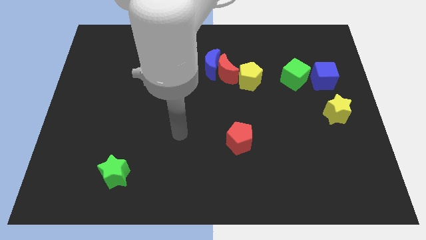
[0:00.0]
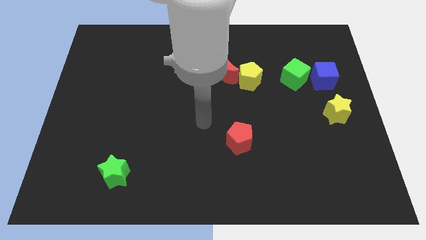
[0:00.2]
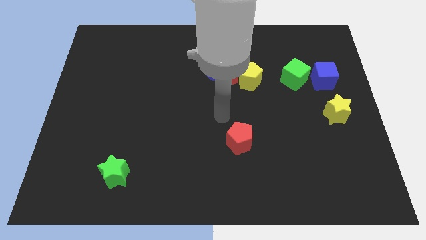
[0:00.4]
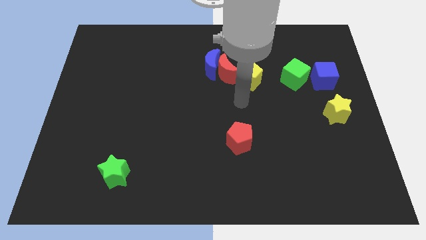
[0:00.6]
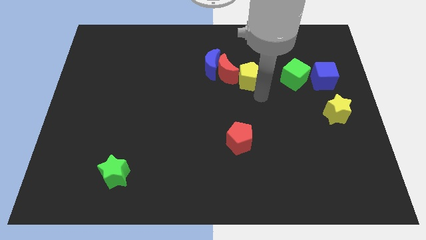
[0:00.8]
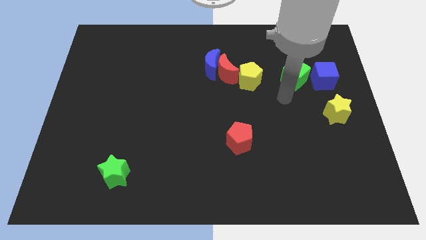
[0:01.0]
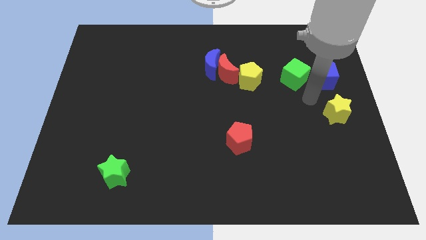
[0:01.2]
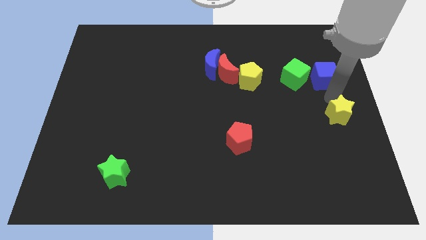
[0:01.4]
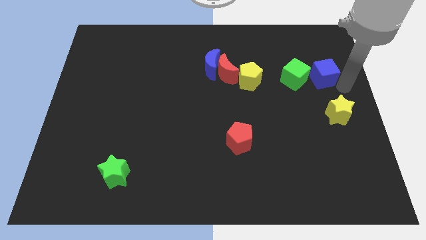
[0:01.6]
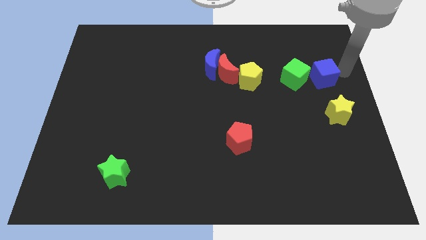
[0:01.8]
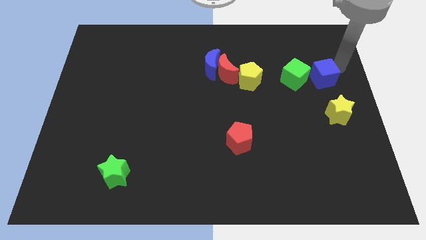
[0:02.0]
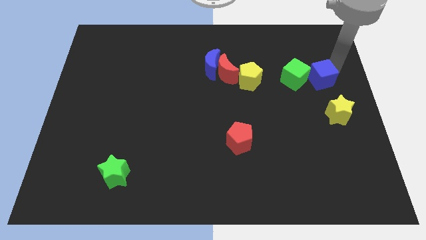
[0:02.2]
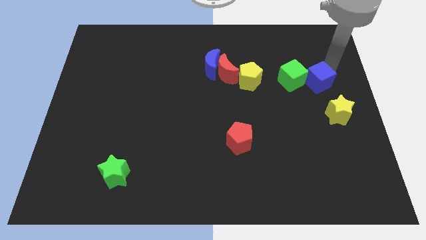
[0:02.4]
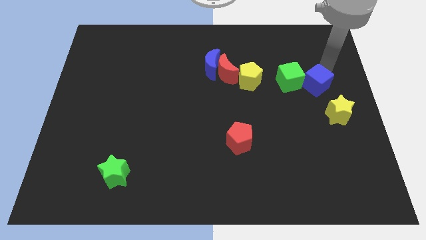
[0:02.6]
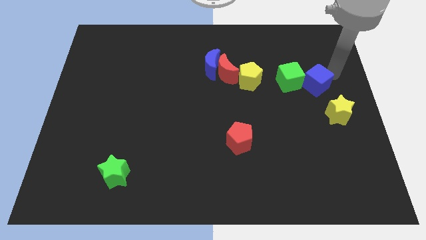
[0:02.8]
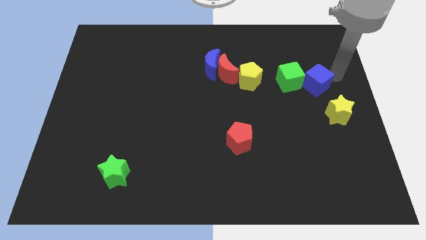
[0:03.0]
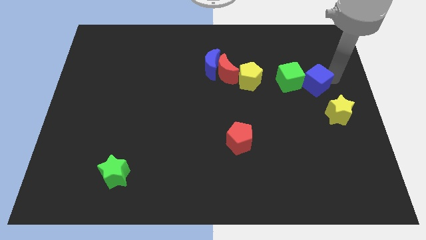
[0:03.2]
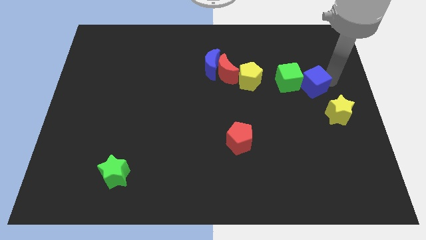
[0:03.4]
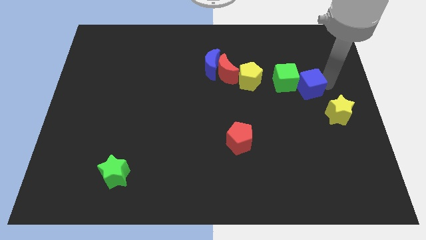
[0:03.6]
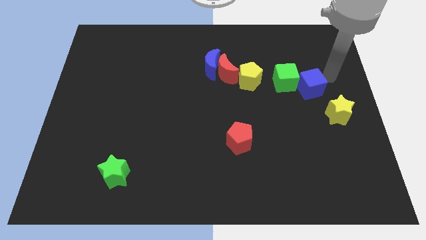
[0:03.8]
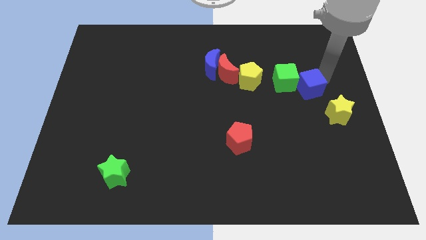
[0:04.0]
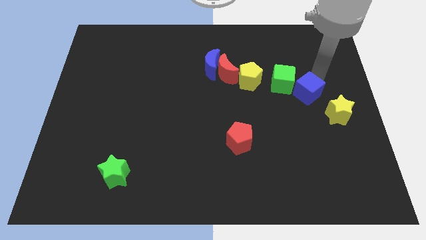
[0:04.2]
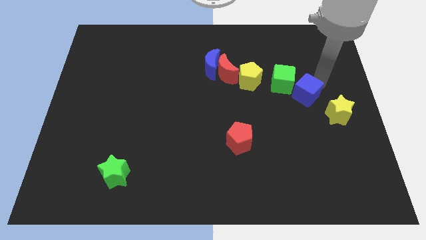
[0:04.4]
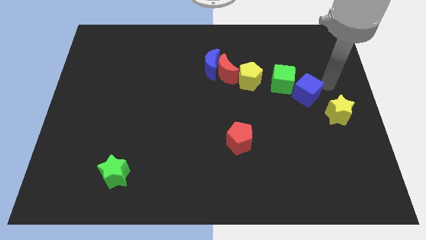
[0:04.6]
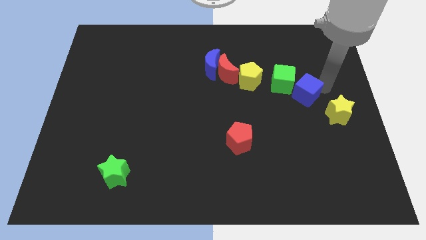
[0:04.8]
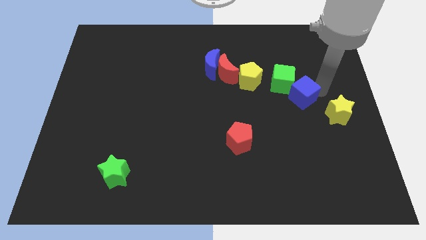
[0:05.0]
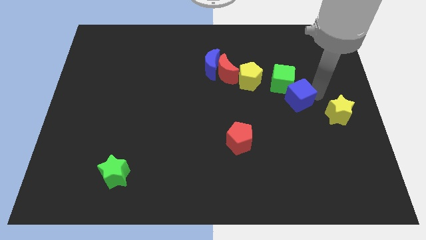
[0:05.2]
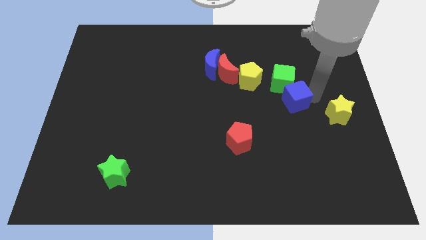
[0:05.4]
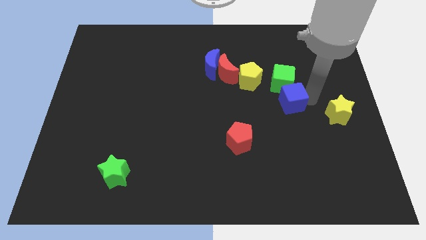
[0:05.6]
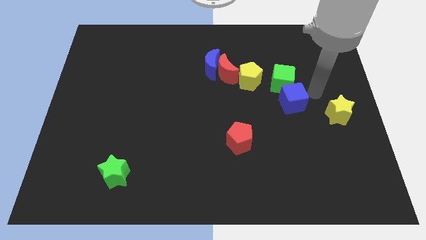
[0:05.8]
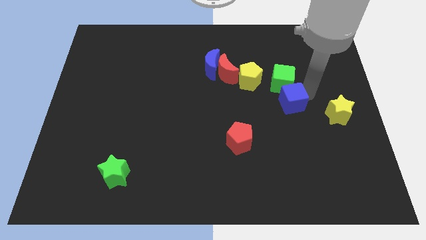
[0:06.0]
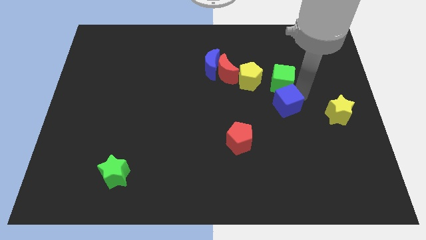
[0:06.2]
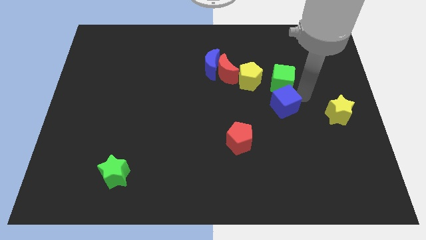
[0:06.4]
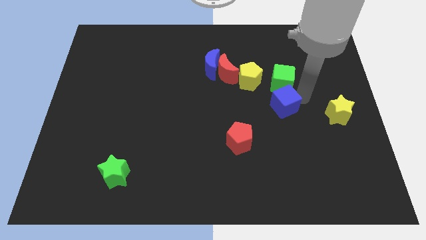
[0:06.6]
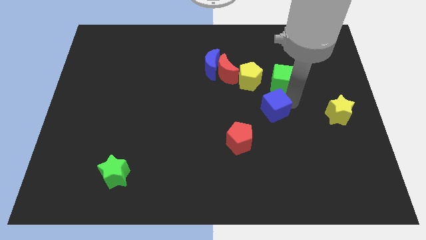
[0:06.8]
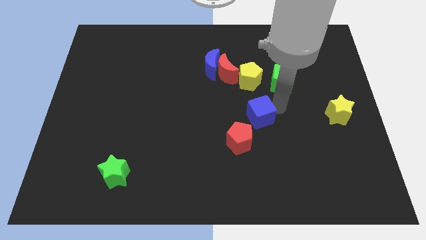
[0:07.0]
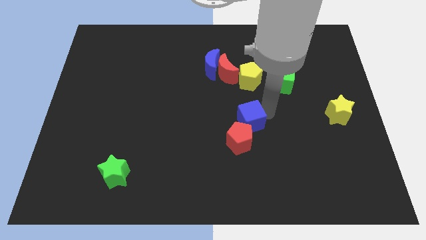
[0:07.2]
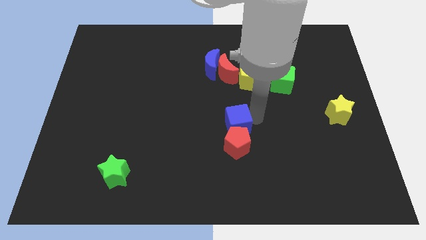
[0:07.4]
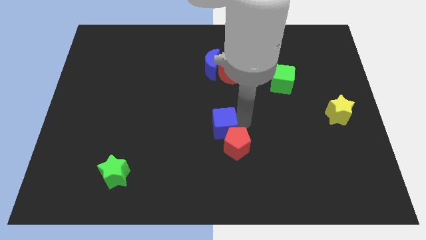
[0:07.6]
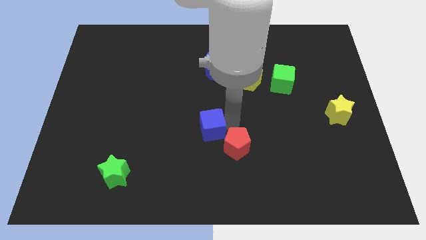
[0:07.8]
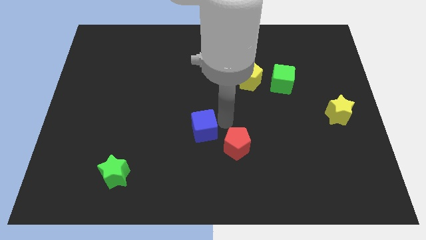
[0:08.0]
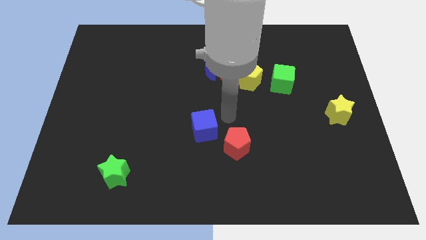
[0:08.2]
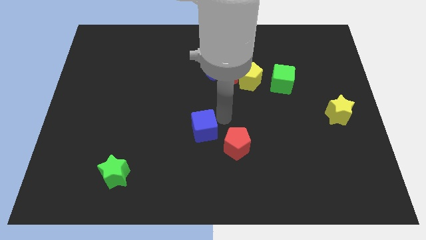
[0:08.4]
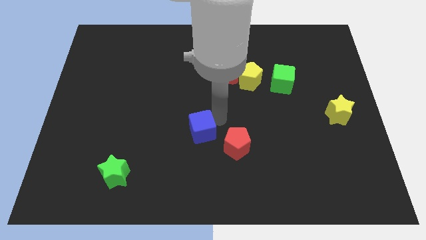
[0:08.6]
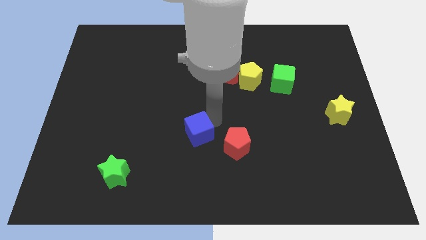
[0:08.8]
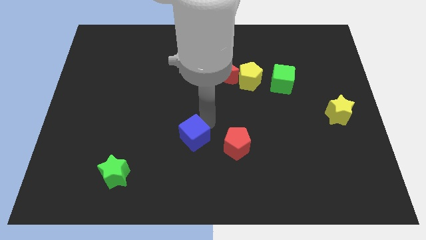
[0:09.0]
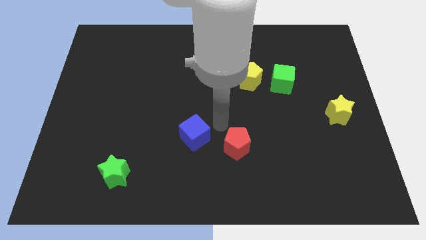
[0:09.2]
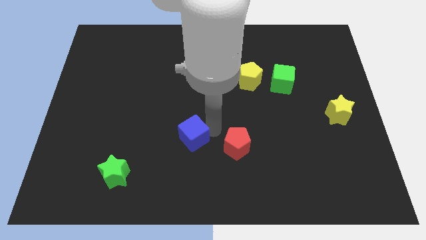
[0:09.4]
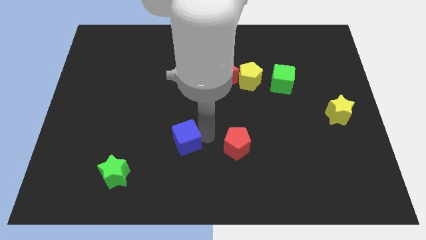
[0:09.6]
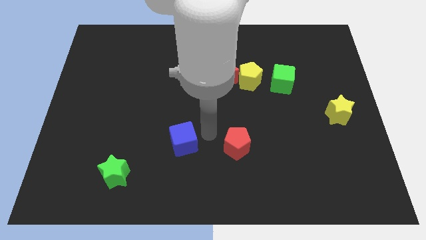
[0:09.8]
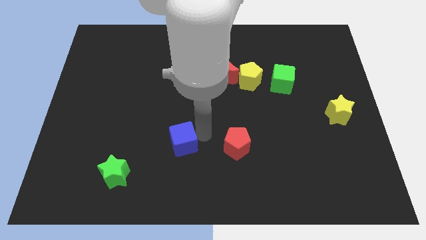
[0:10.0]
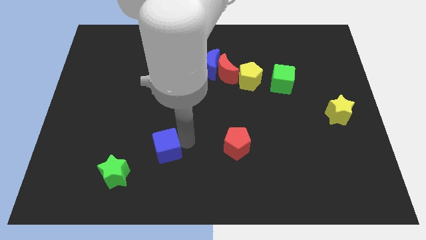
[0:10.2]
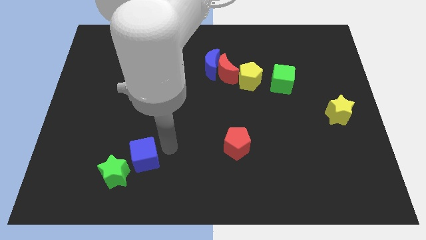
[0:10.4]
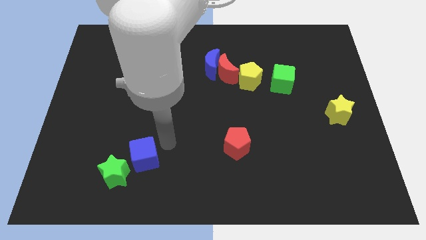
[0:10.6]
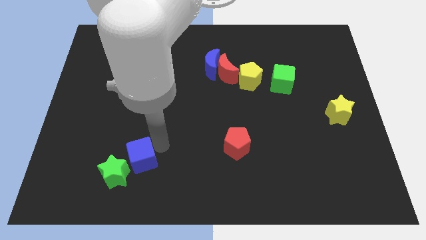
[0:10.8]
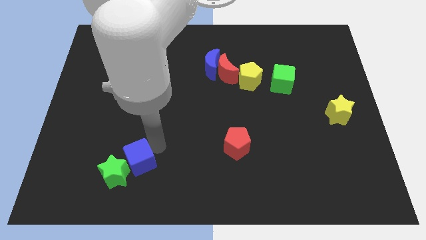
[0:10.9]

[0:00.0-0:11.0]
push the blue cube close to the green star

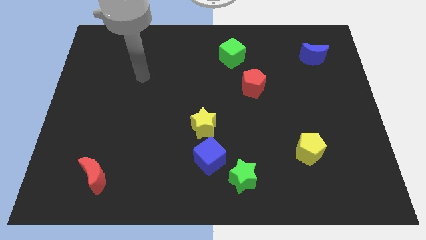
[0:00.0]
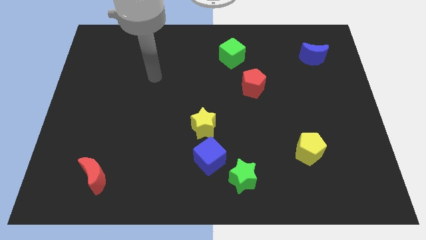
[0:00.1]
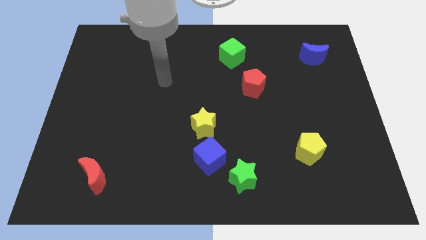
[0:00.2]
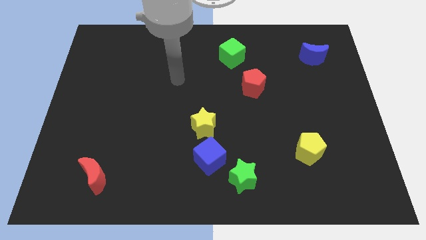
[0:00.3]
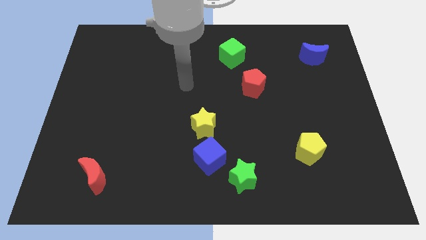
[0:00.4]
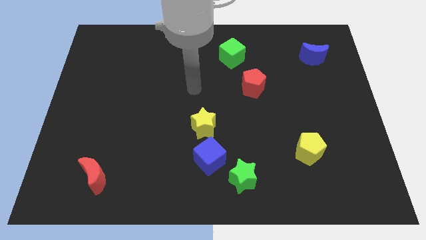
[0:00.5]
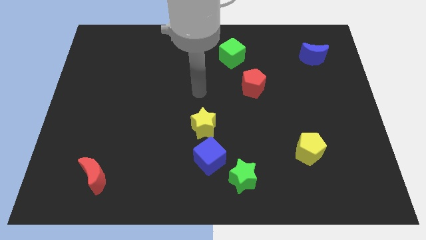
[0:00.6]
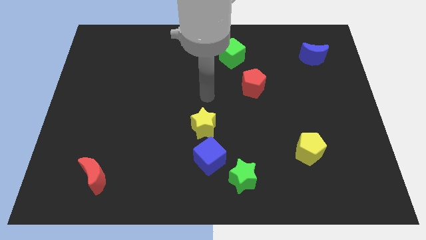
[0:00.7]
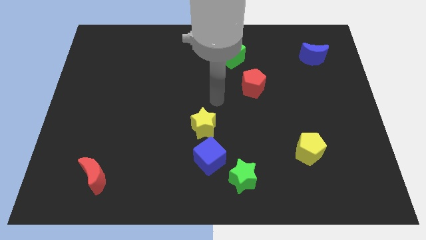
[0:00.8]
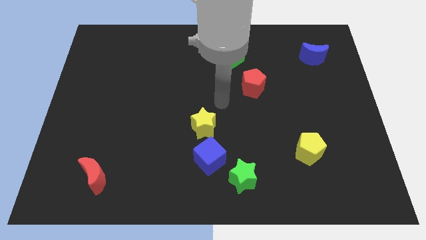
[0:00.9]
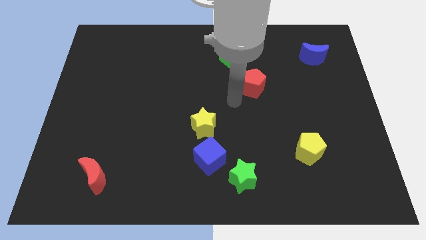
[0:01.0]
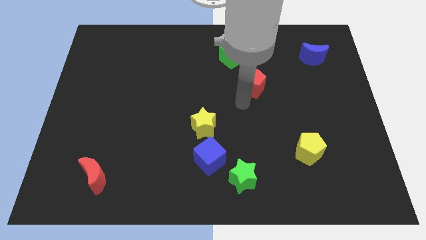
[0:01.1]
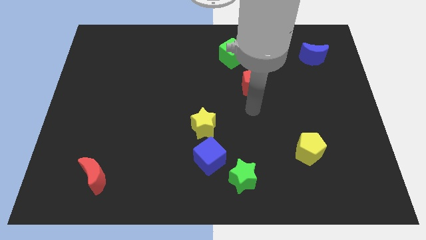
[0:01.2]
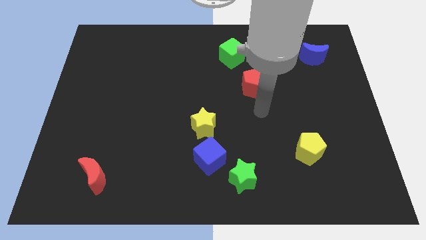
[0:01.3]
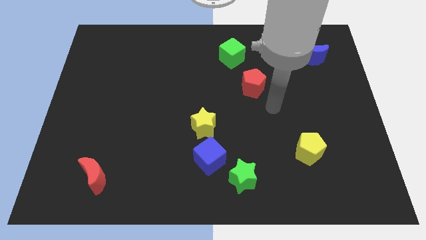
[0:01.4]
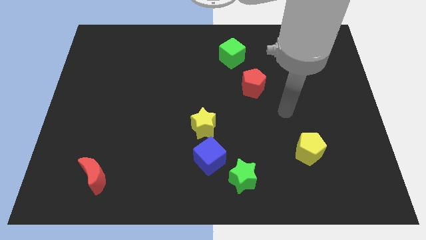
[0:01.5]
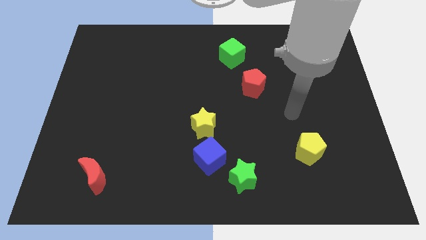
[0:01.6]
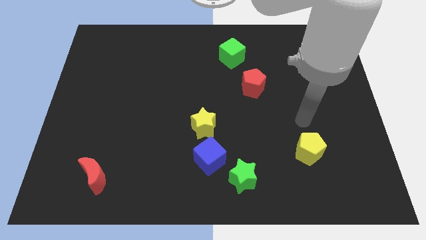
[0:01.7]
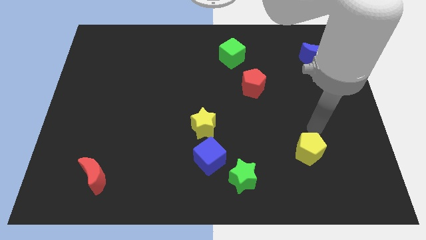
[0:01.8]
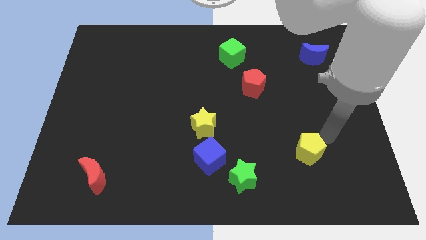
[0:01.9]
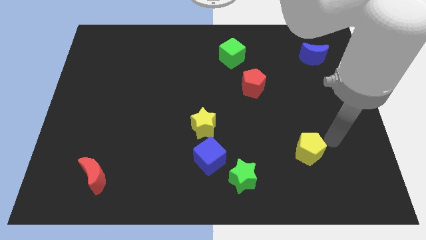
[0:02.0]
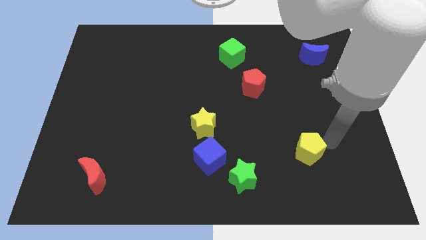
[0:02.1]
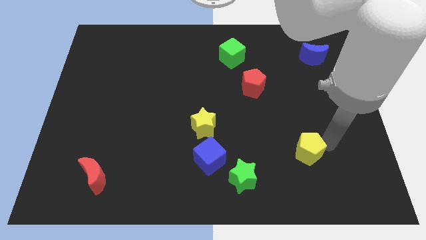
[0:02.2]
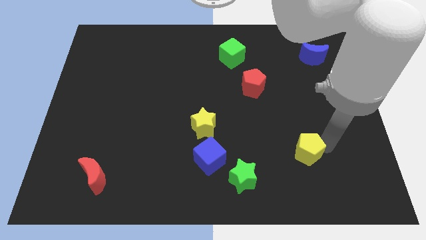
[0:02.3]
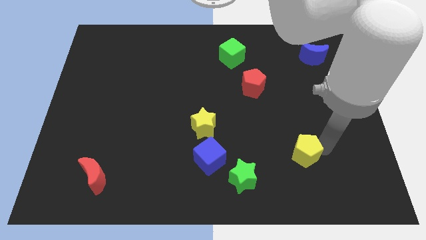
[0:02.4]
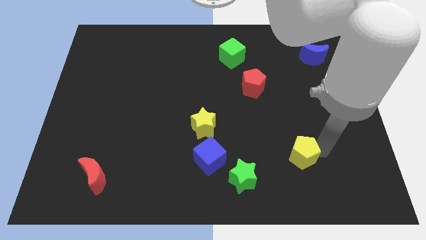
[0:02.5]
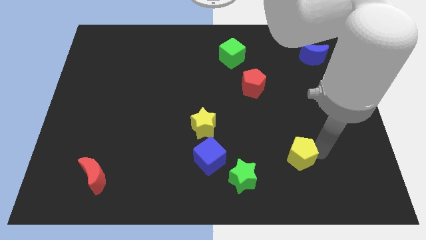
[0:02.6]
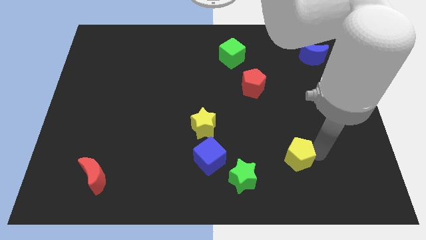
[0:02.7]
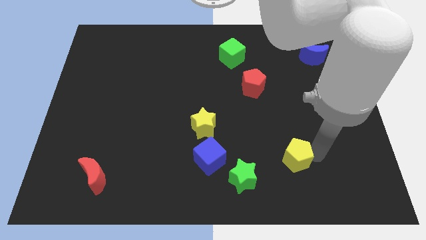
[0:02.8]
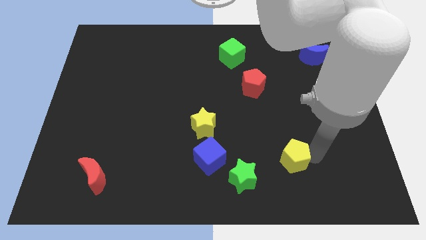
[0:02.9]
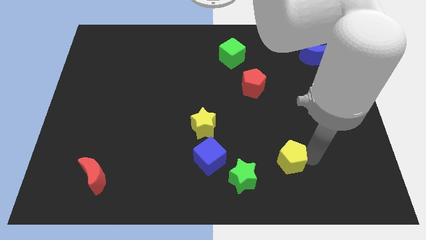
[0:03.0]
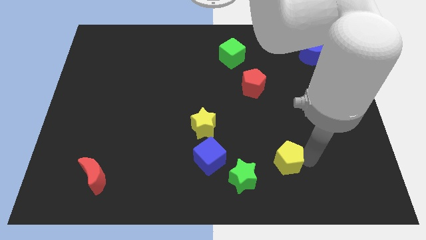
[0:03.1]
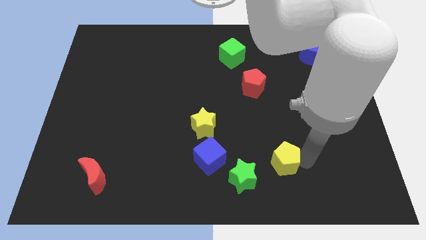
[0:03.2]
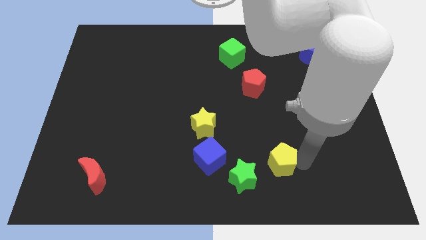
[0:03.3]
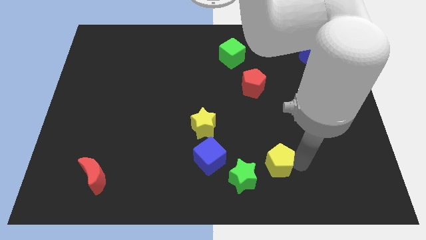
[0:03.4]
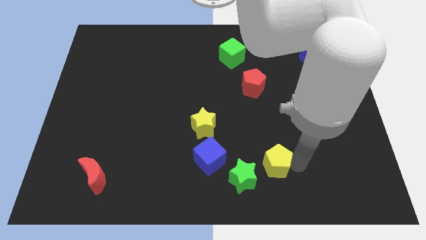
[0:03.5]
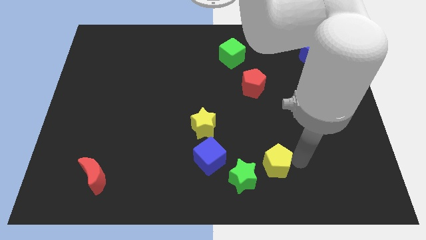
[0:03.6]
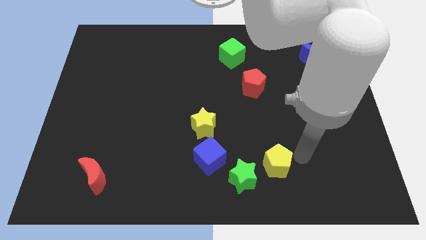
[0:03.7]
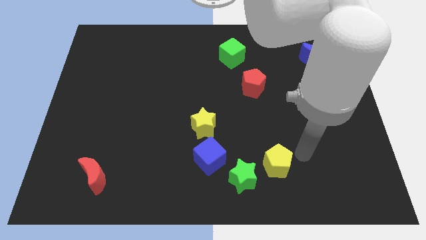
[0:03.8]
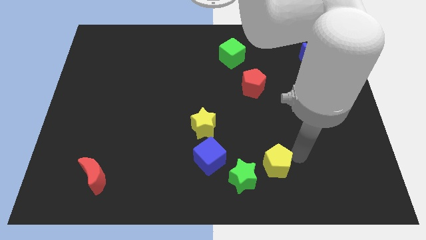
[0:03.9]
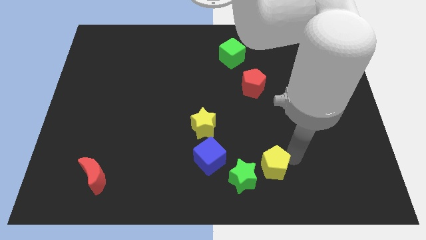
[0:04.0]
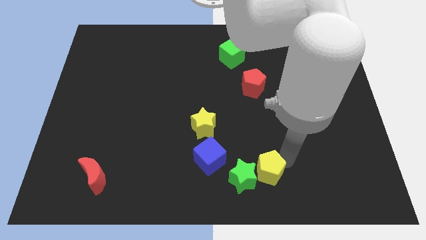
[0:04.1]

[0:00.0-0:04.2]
slide the yellow pentagon to the green star
